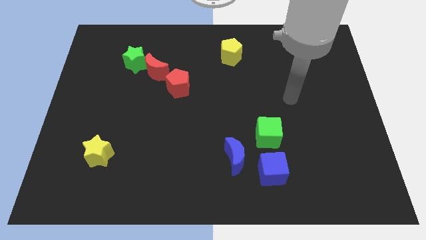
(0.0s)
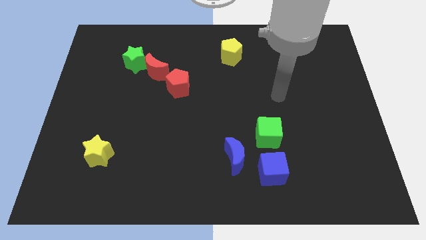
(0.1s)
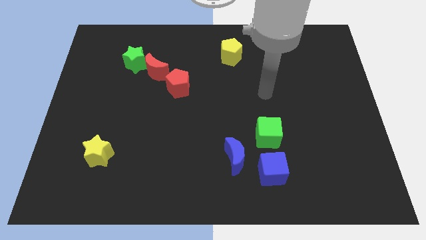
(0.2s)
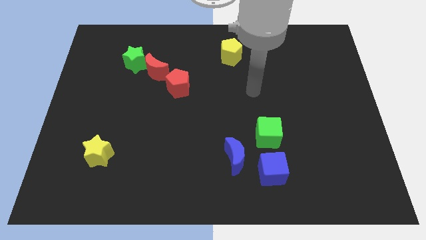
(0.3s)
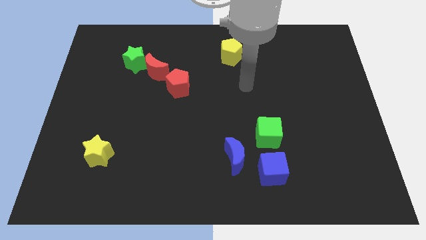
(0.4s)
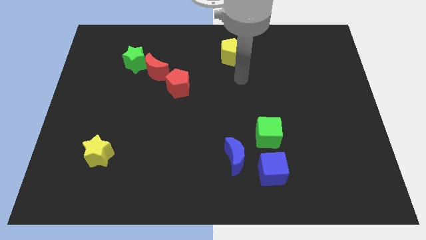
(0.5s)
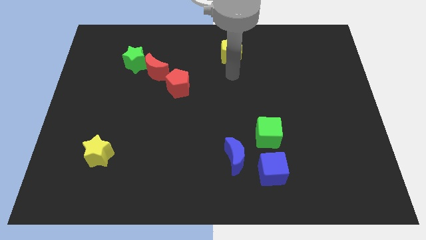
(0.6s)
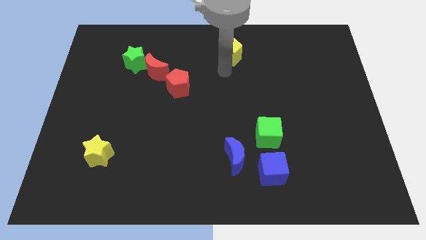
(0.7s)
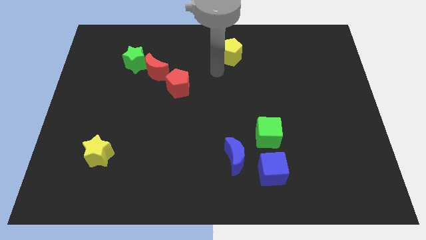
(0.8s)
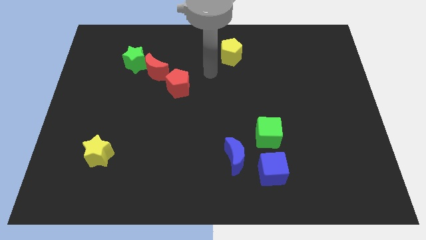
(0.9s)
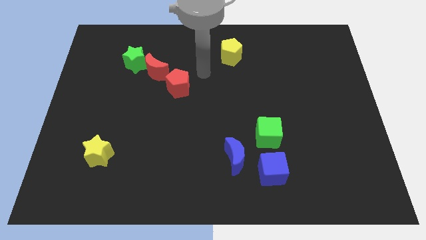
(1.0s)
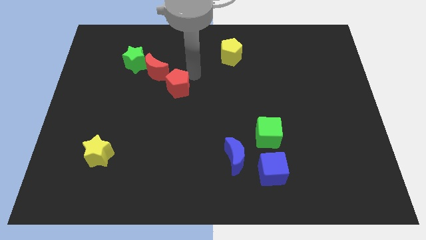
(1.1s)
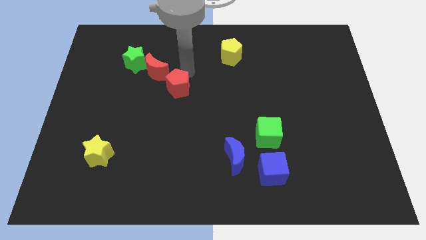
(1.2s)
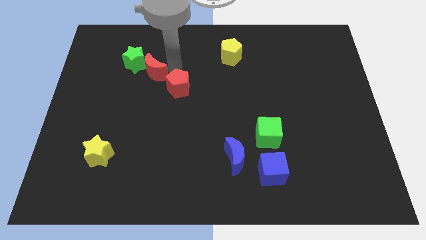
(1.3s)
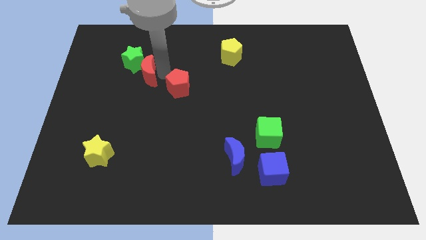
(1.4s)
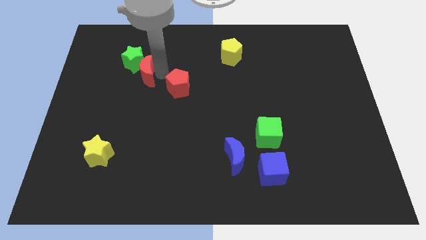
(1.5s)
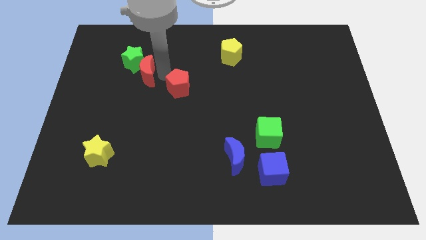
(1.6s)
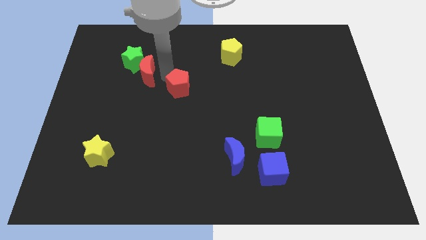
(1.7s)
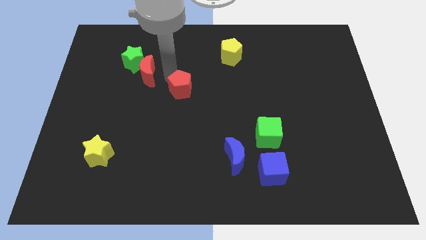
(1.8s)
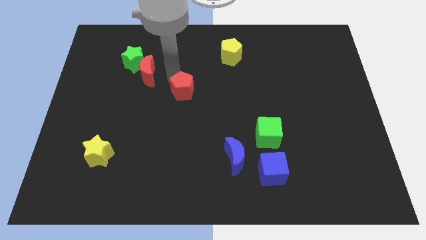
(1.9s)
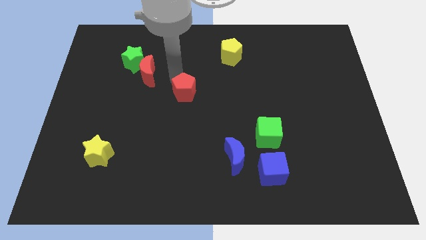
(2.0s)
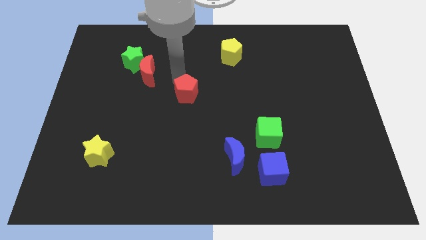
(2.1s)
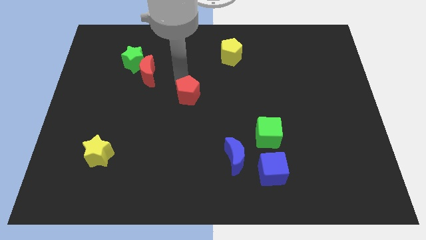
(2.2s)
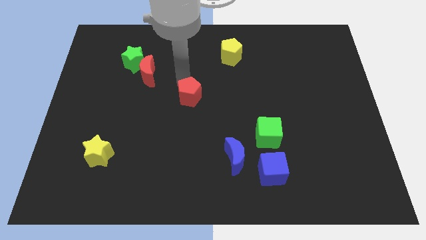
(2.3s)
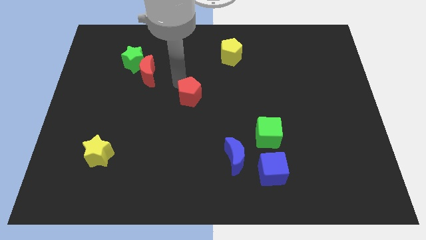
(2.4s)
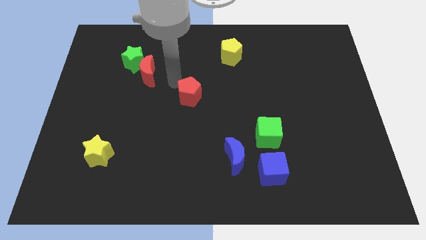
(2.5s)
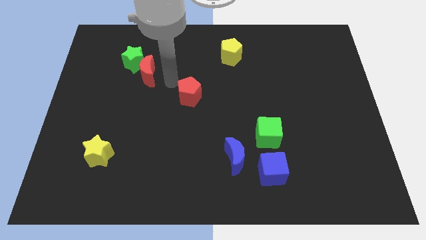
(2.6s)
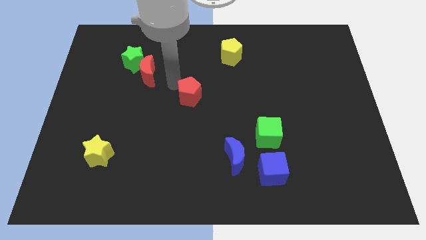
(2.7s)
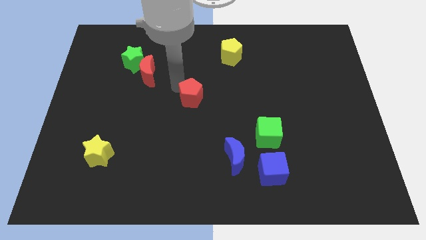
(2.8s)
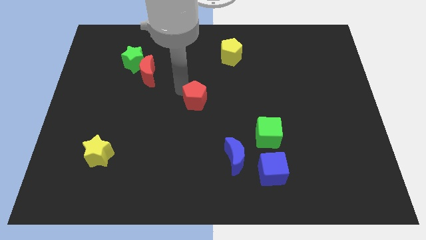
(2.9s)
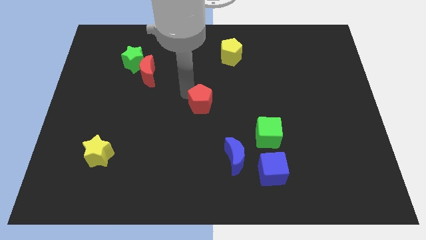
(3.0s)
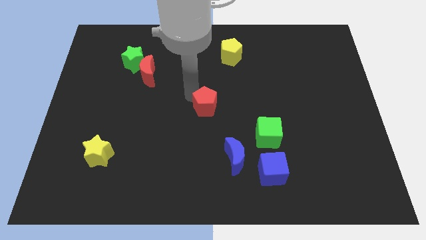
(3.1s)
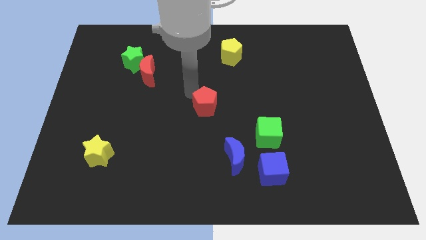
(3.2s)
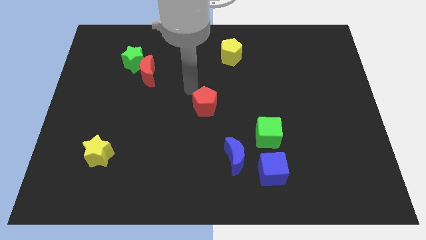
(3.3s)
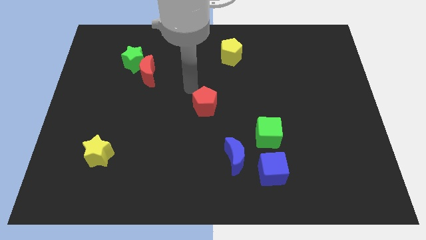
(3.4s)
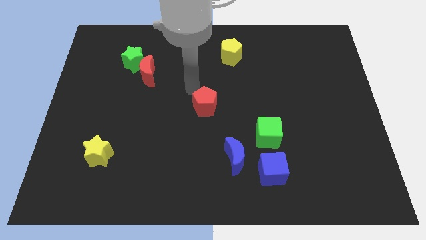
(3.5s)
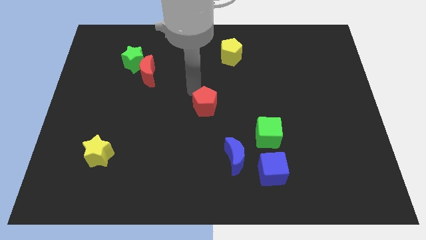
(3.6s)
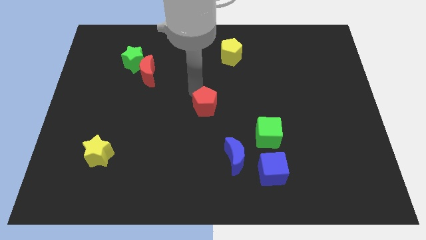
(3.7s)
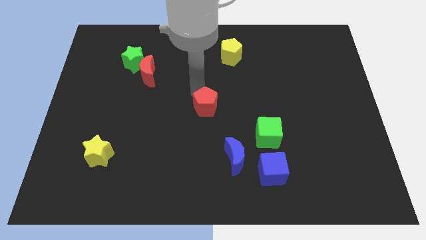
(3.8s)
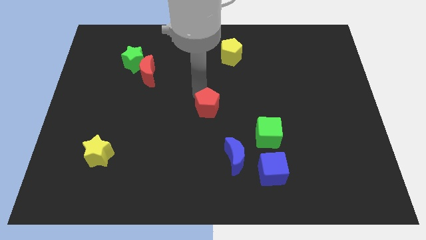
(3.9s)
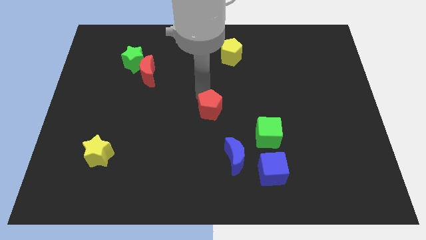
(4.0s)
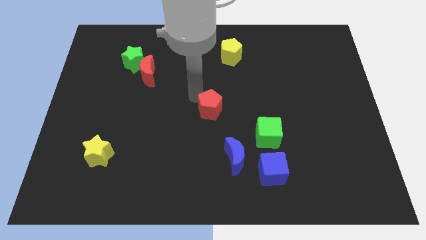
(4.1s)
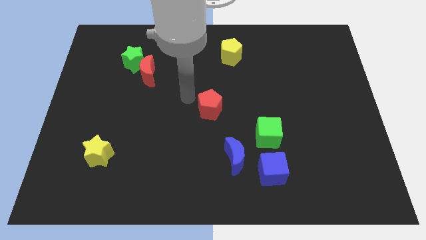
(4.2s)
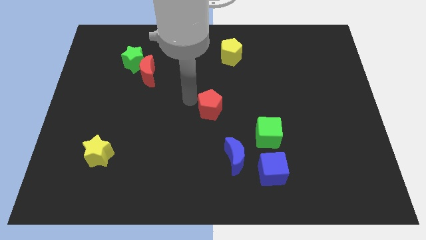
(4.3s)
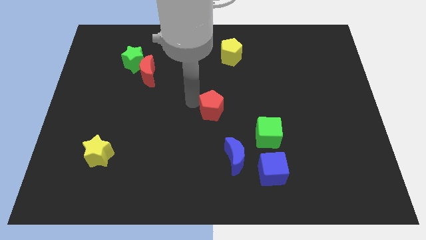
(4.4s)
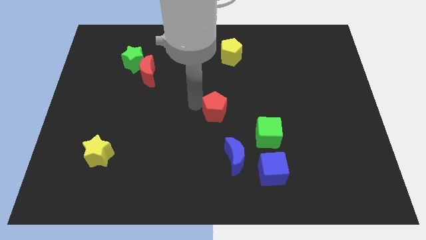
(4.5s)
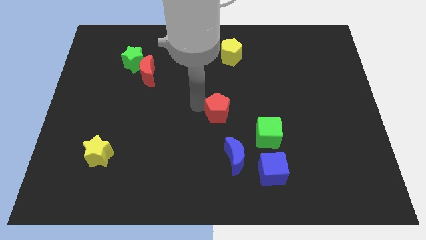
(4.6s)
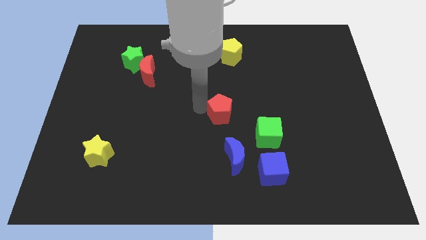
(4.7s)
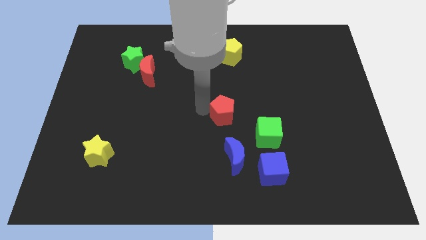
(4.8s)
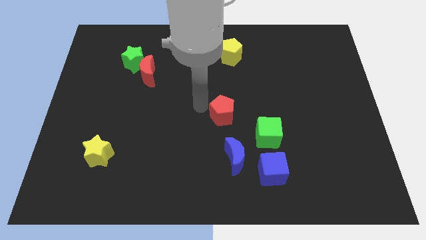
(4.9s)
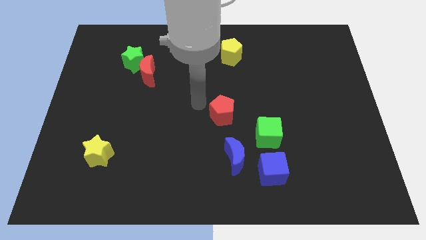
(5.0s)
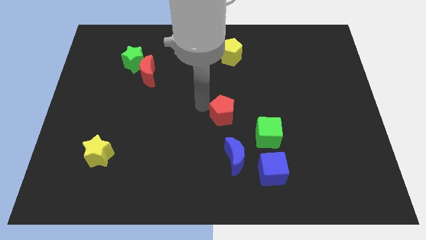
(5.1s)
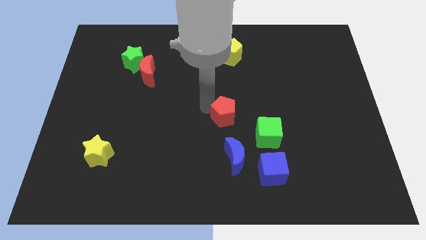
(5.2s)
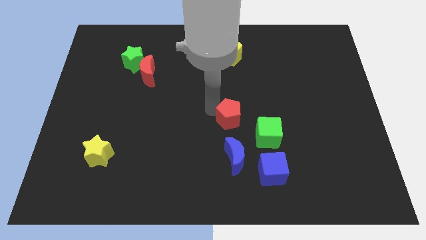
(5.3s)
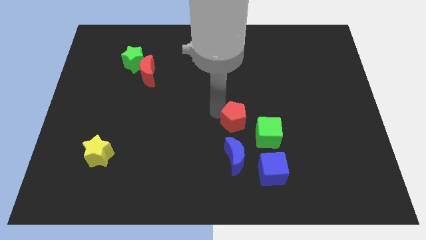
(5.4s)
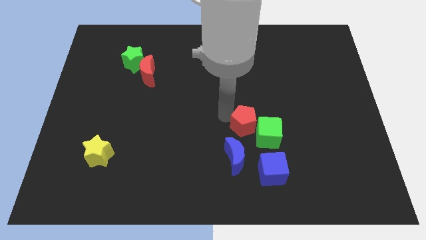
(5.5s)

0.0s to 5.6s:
put the red pentagon next to the green cube

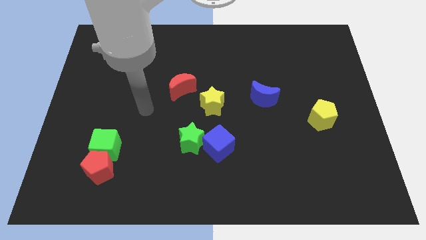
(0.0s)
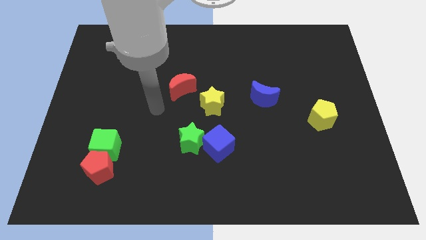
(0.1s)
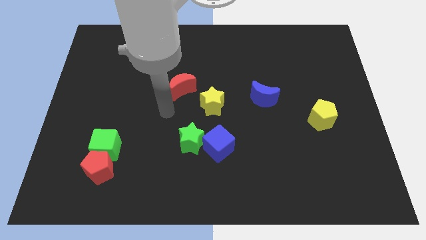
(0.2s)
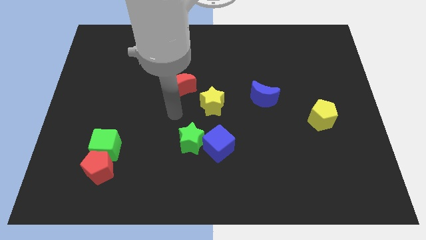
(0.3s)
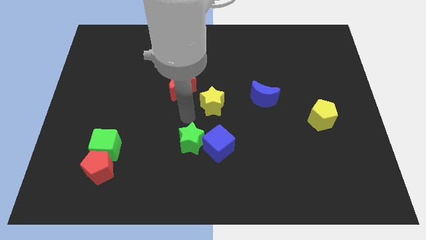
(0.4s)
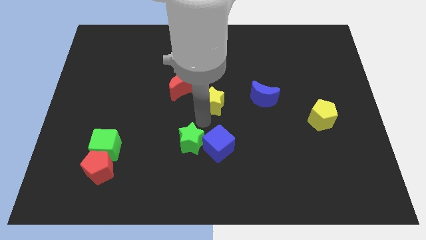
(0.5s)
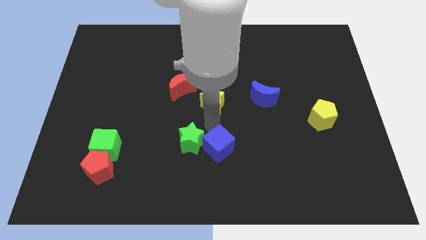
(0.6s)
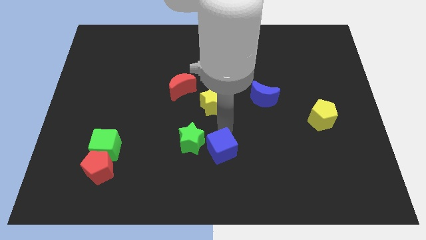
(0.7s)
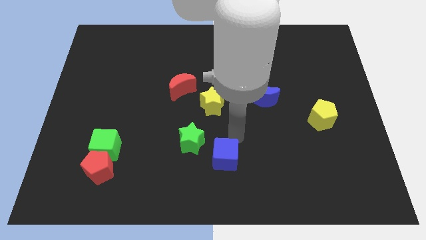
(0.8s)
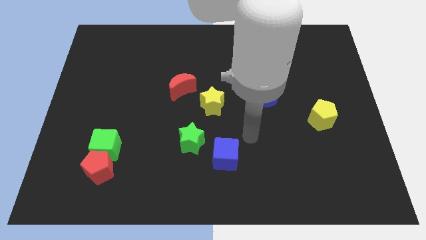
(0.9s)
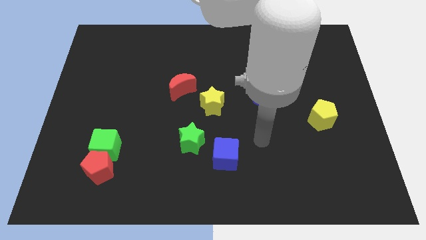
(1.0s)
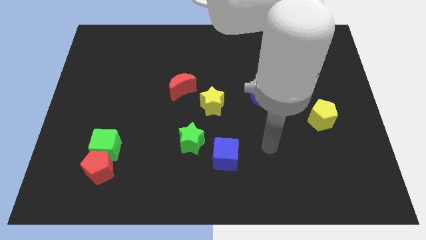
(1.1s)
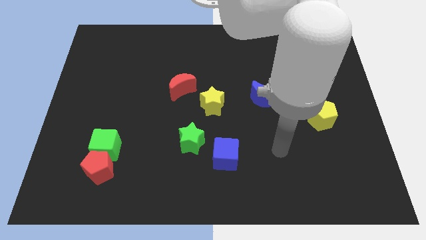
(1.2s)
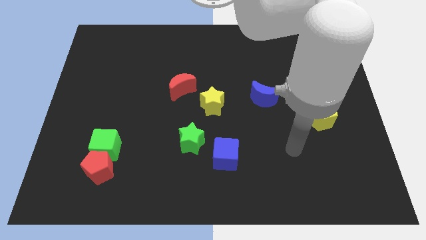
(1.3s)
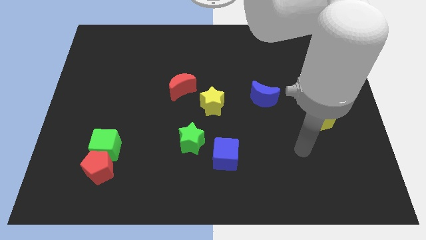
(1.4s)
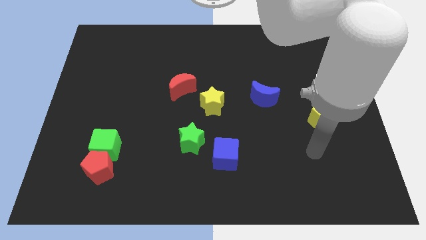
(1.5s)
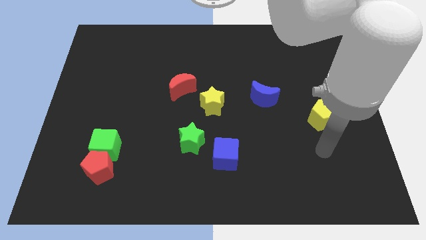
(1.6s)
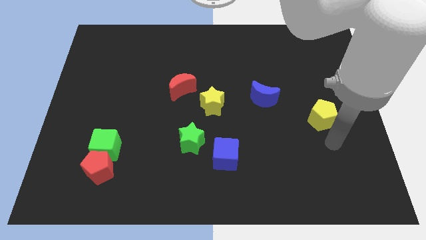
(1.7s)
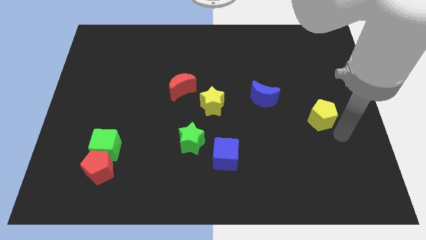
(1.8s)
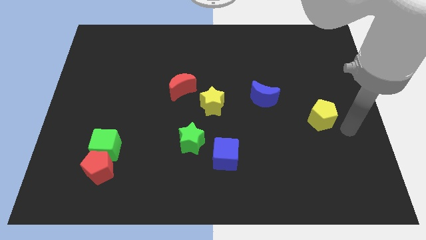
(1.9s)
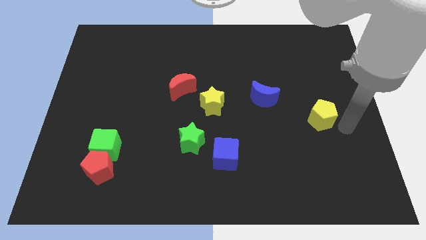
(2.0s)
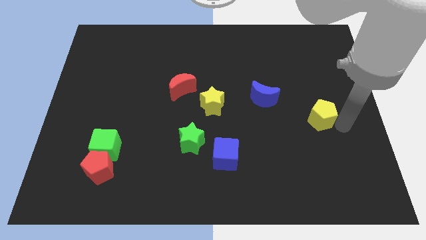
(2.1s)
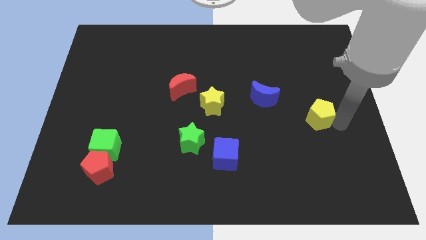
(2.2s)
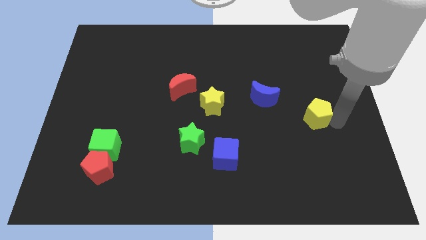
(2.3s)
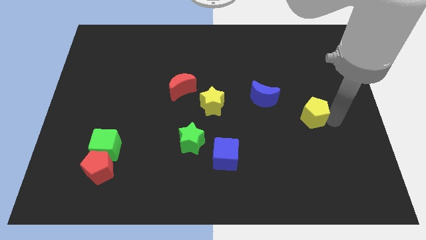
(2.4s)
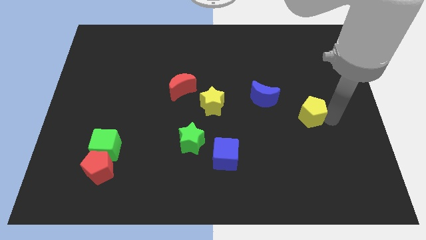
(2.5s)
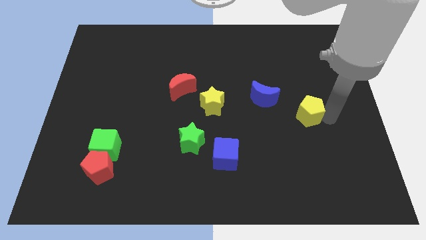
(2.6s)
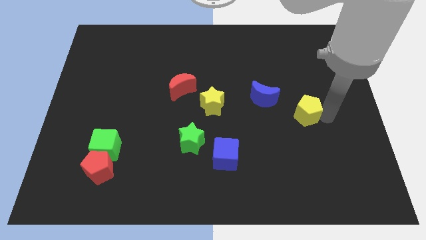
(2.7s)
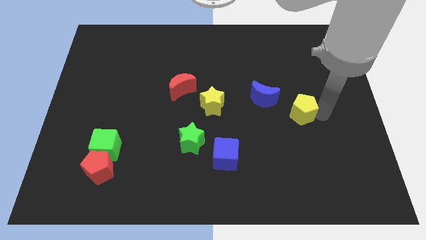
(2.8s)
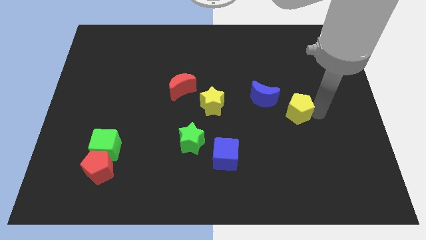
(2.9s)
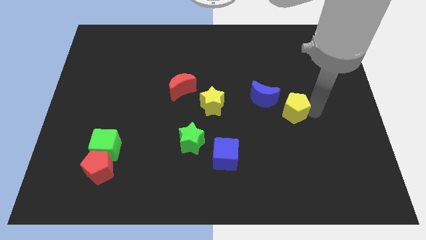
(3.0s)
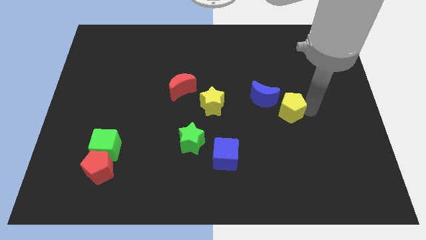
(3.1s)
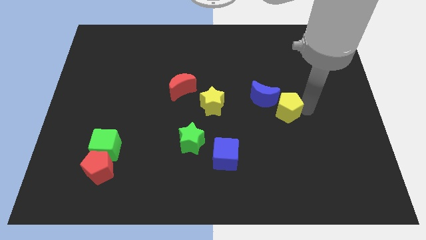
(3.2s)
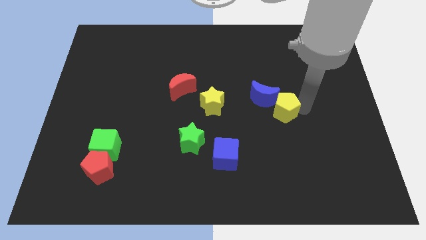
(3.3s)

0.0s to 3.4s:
put the yellow pentagon to the blue moon
